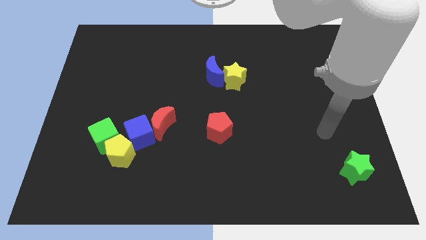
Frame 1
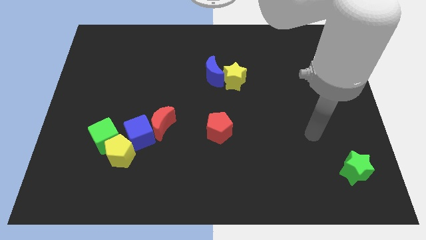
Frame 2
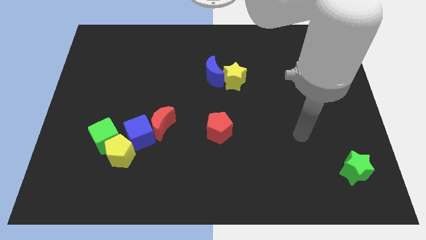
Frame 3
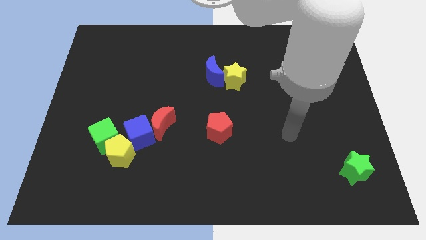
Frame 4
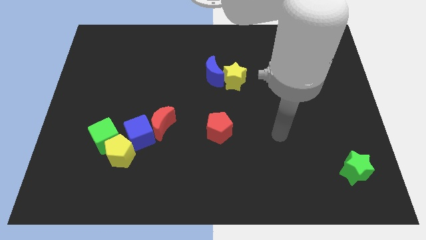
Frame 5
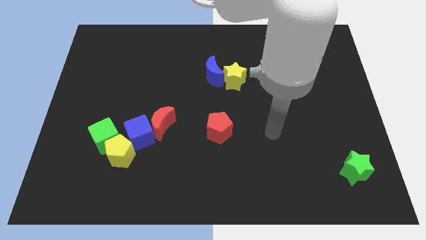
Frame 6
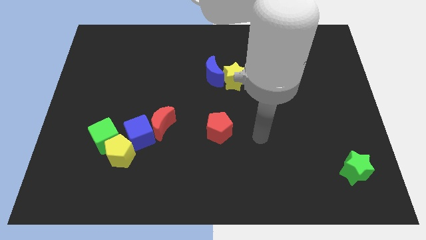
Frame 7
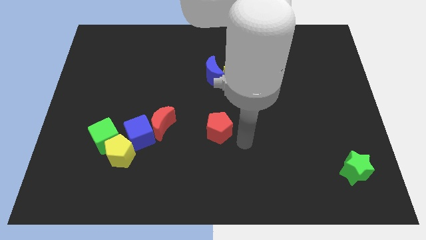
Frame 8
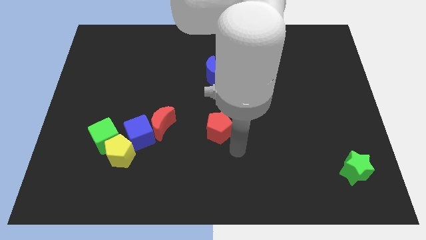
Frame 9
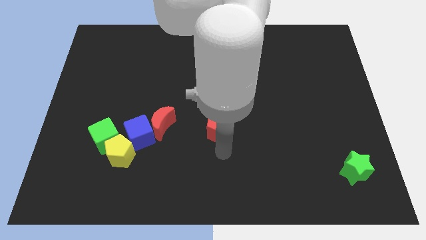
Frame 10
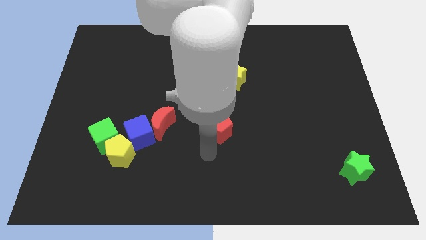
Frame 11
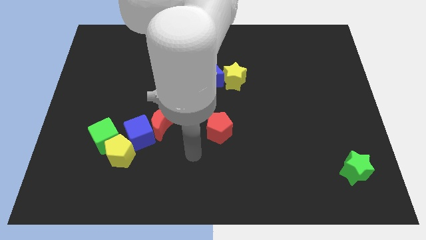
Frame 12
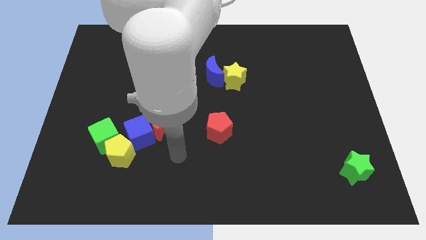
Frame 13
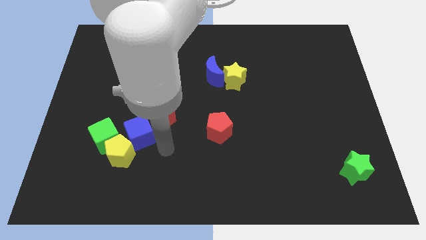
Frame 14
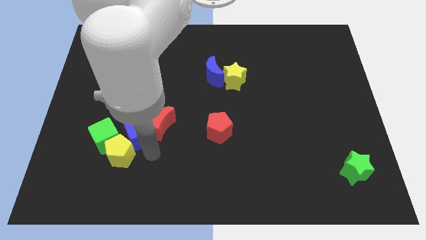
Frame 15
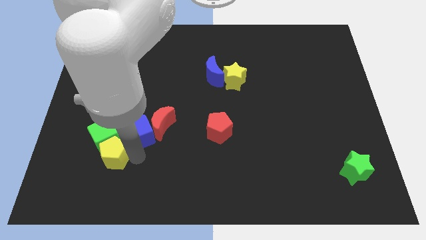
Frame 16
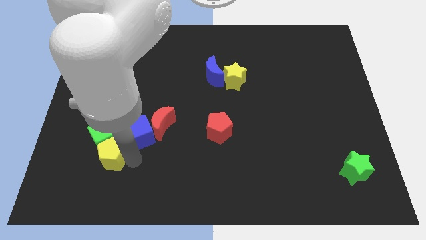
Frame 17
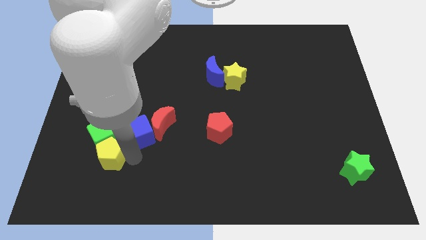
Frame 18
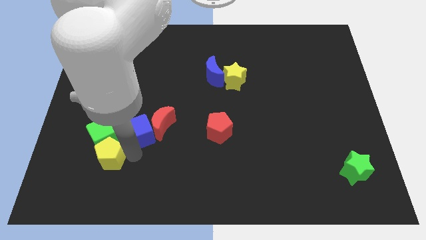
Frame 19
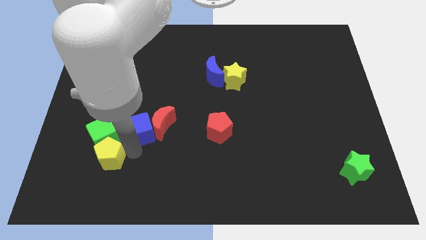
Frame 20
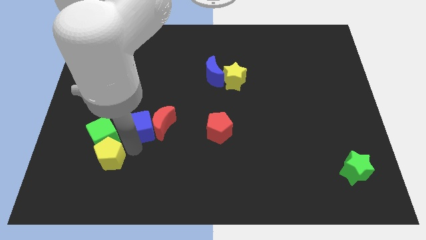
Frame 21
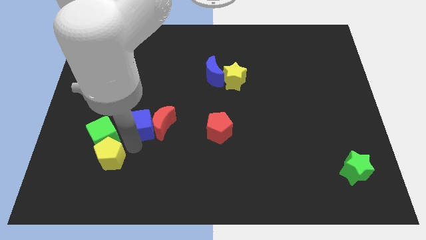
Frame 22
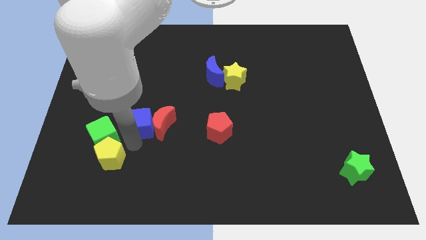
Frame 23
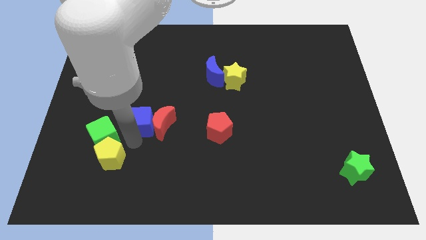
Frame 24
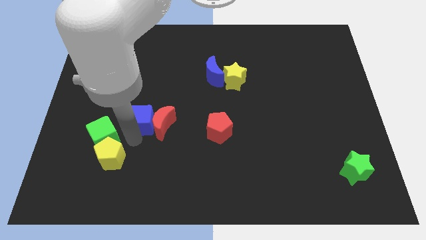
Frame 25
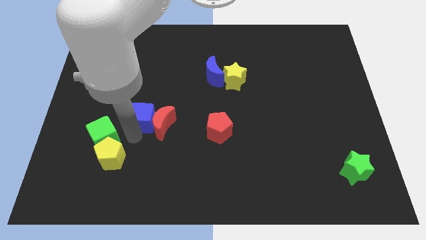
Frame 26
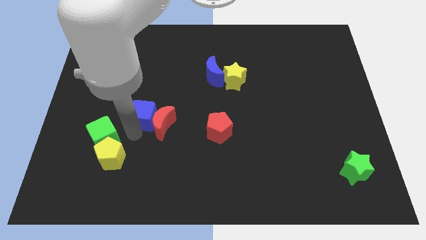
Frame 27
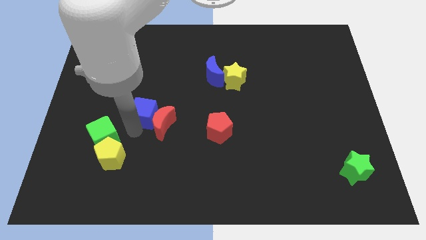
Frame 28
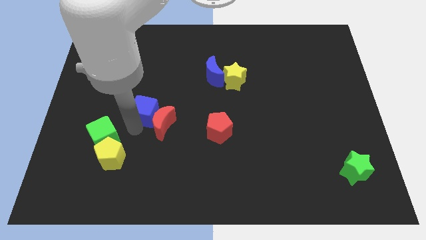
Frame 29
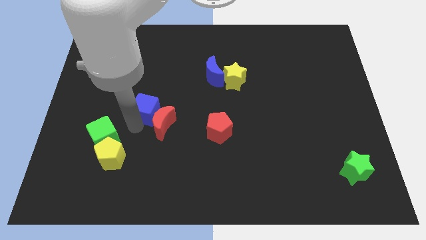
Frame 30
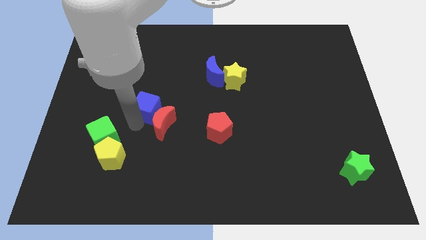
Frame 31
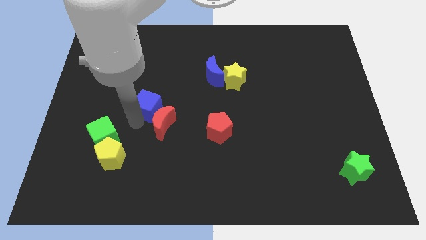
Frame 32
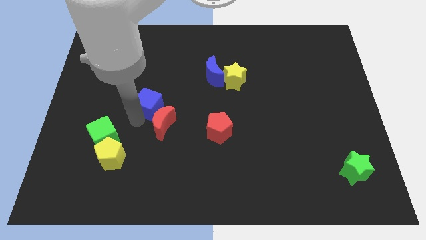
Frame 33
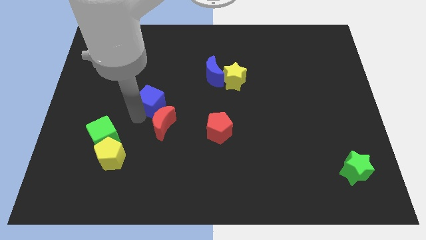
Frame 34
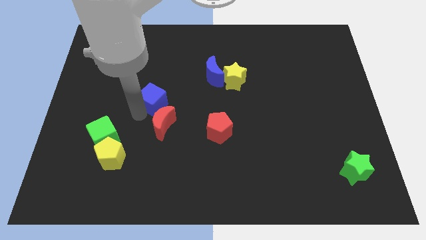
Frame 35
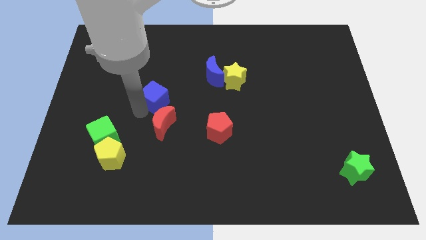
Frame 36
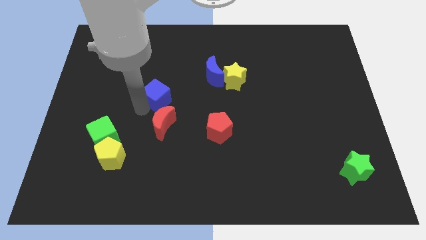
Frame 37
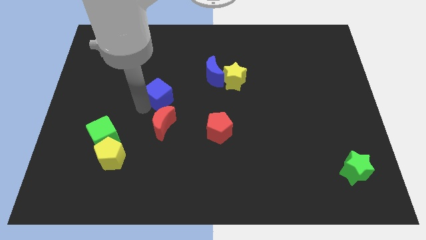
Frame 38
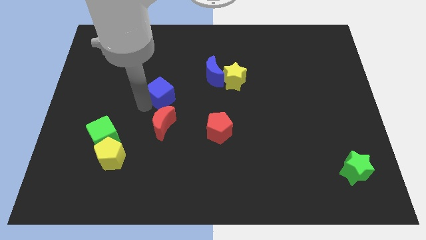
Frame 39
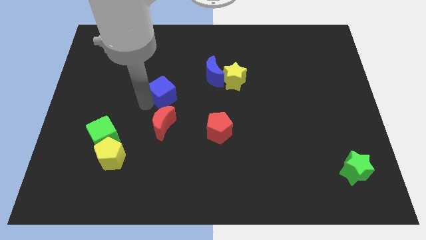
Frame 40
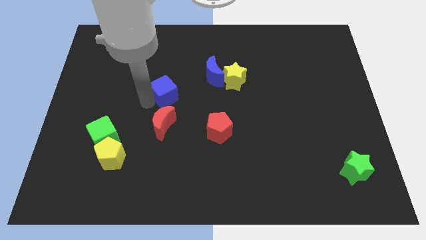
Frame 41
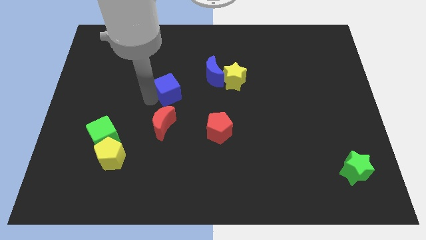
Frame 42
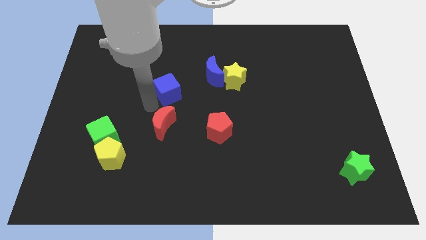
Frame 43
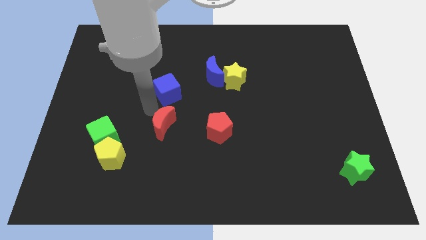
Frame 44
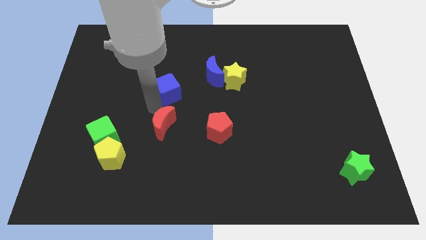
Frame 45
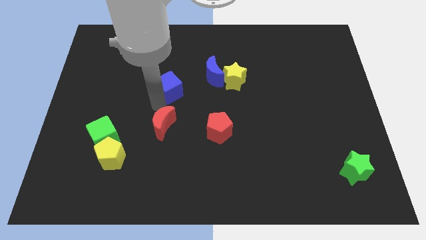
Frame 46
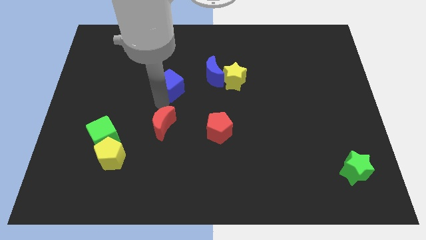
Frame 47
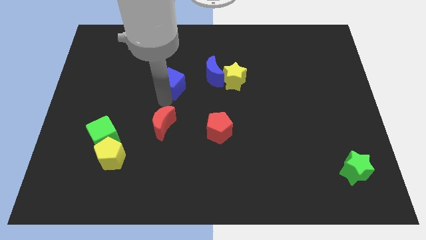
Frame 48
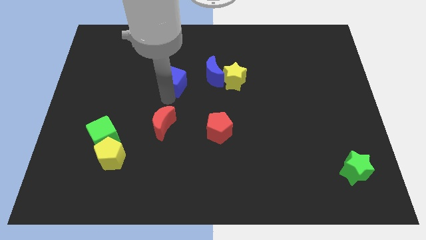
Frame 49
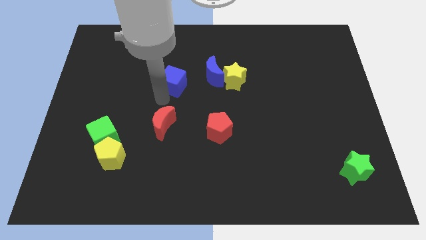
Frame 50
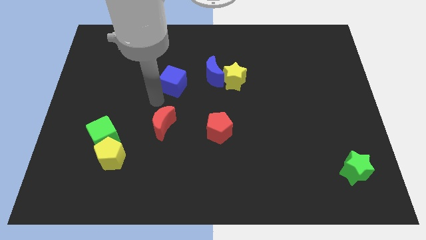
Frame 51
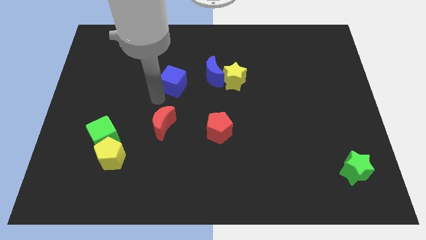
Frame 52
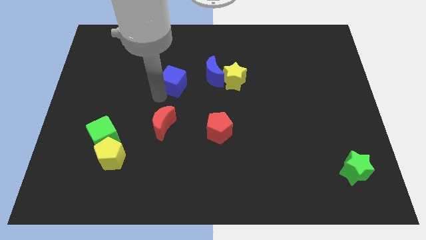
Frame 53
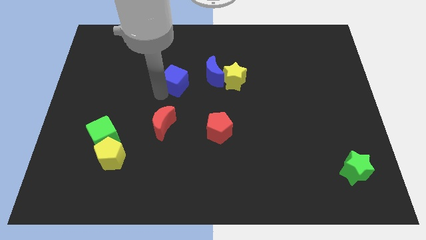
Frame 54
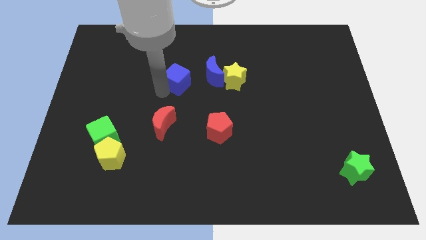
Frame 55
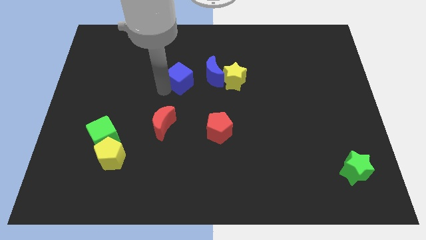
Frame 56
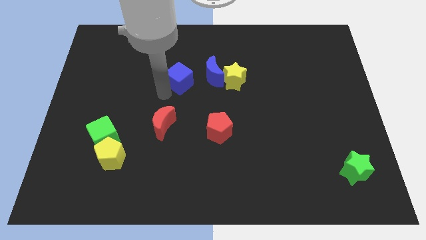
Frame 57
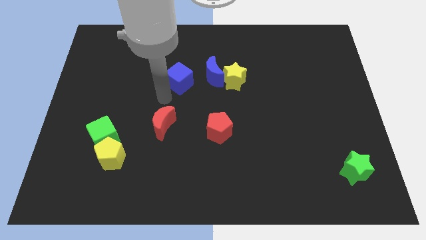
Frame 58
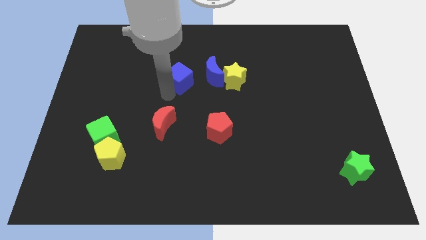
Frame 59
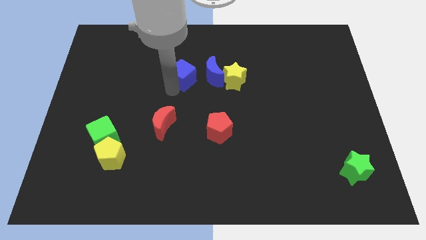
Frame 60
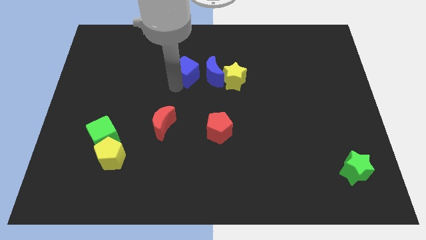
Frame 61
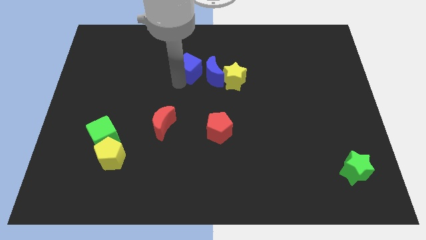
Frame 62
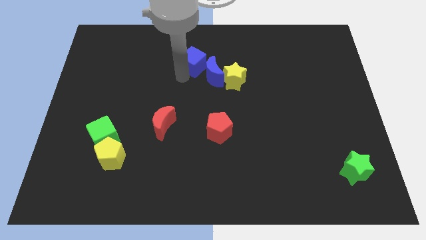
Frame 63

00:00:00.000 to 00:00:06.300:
move the blue cube up and to the right diagonally

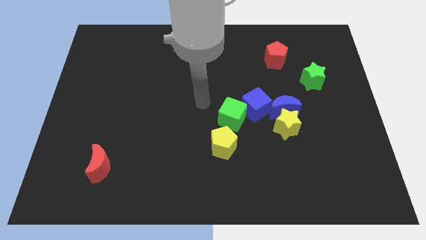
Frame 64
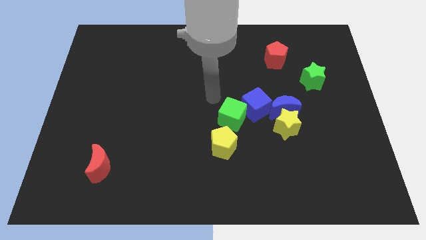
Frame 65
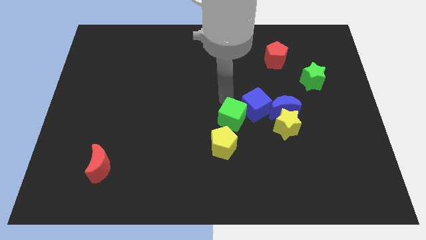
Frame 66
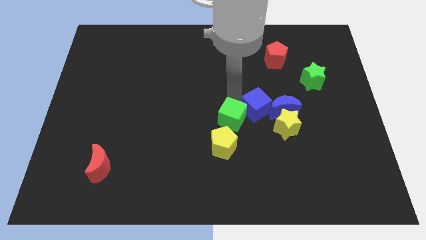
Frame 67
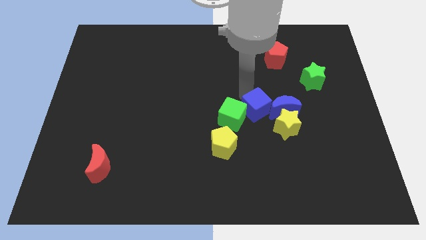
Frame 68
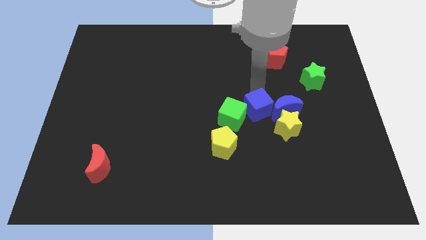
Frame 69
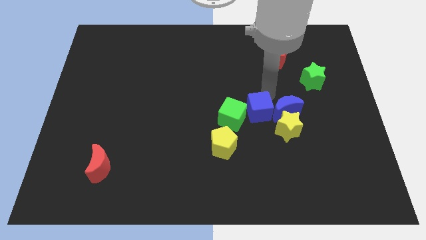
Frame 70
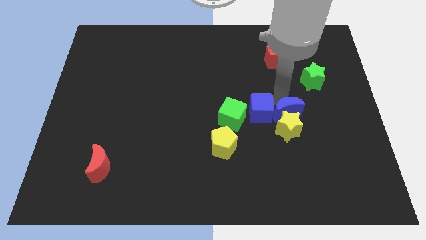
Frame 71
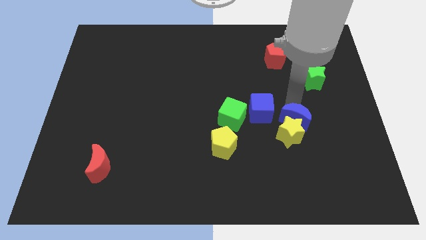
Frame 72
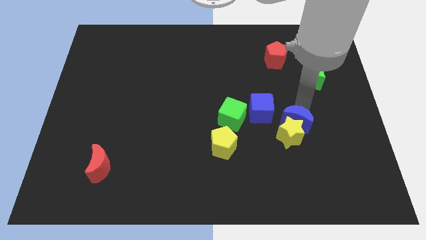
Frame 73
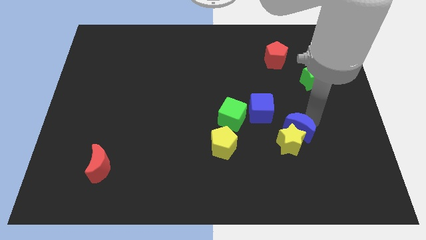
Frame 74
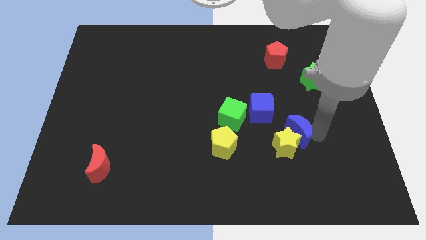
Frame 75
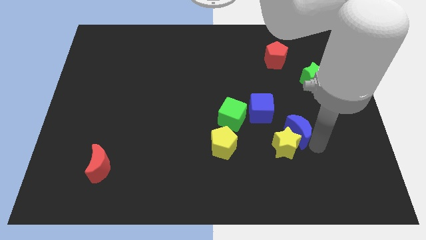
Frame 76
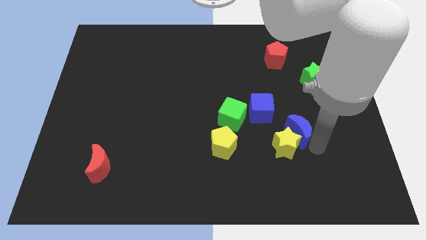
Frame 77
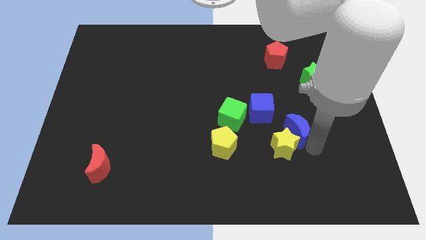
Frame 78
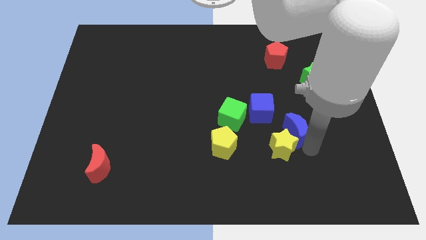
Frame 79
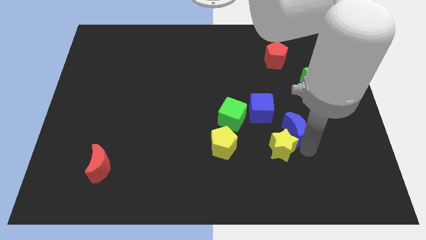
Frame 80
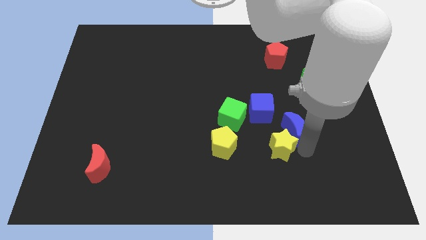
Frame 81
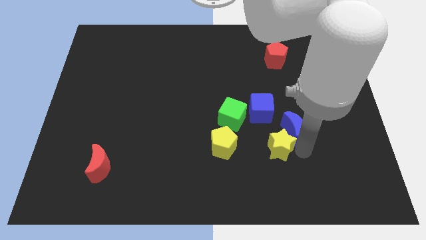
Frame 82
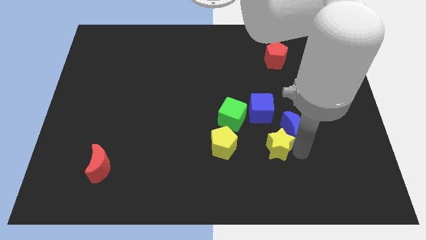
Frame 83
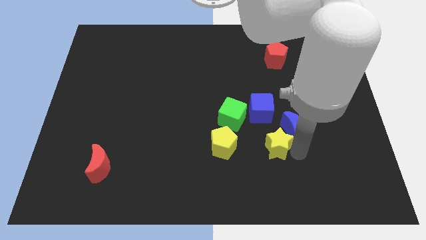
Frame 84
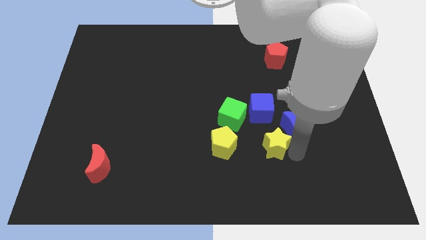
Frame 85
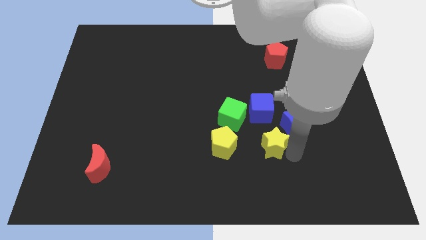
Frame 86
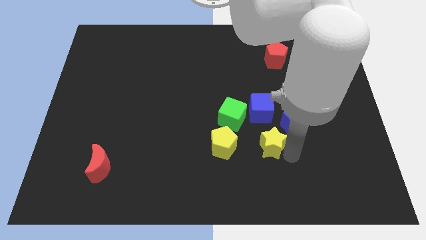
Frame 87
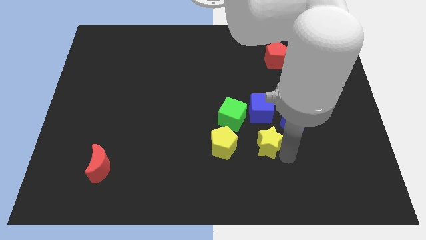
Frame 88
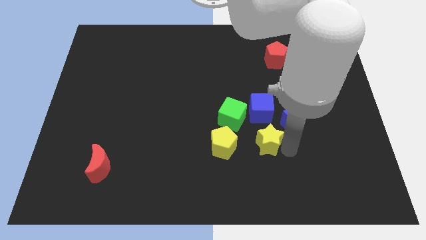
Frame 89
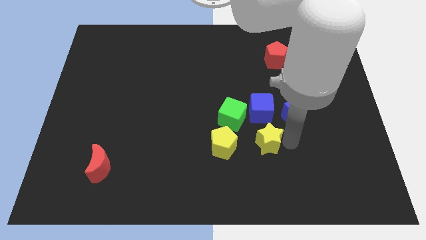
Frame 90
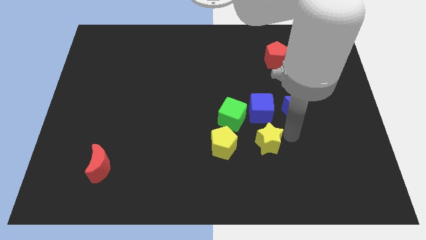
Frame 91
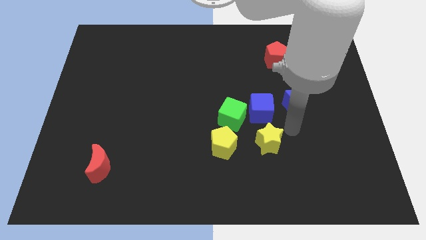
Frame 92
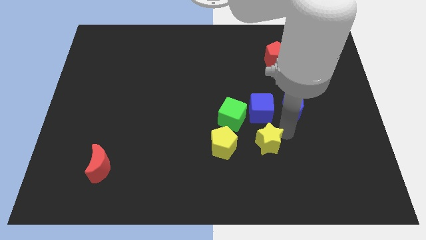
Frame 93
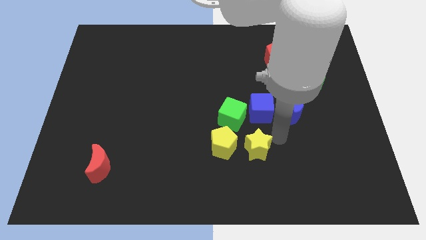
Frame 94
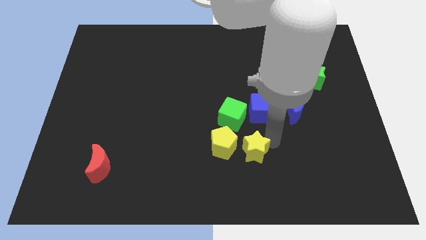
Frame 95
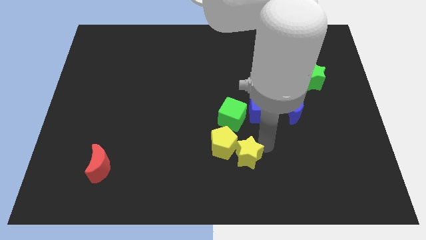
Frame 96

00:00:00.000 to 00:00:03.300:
slide the yellow star to the left a little bit
